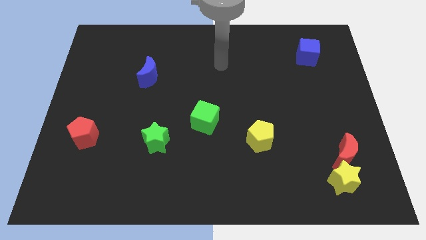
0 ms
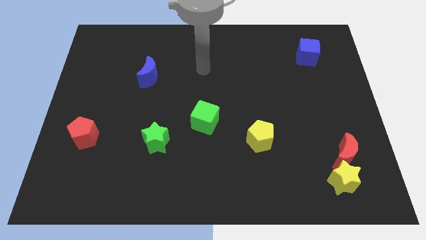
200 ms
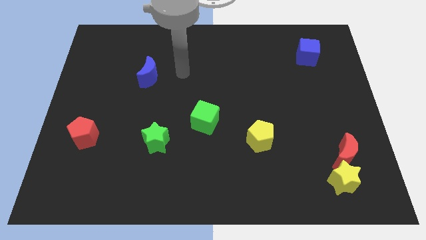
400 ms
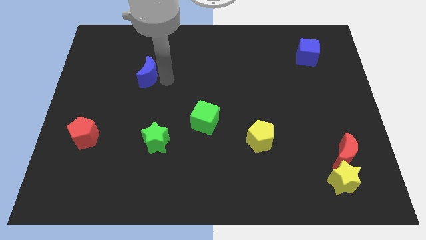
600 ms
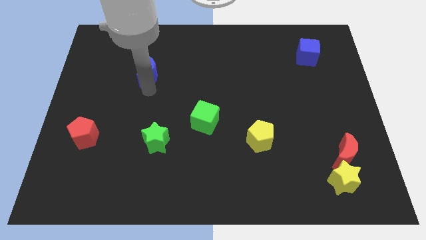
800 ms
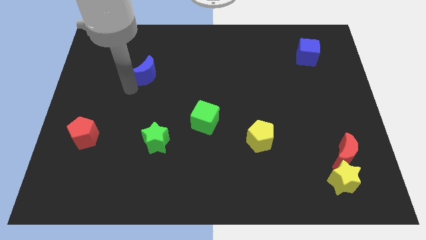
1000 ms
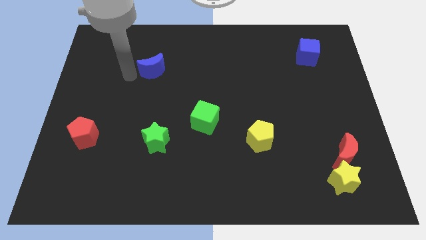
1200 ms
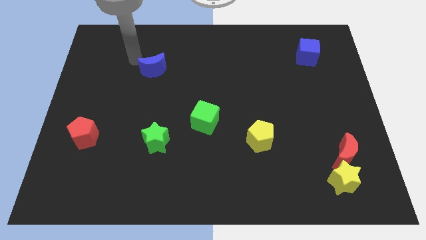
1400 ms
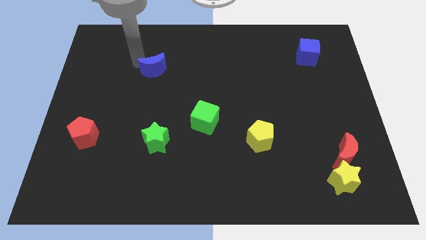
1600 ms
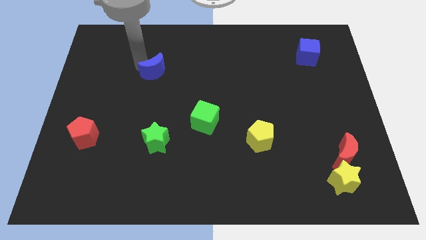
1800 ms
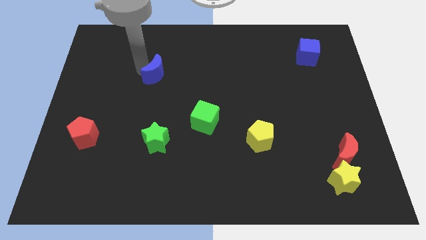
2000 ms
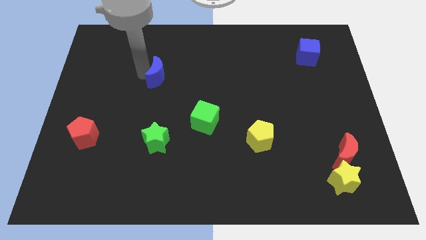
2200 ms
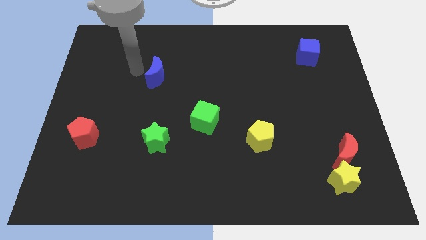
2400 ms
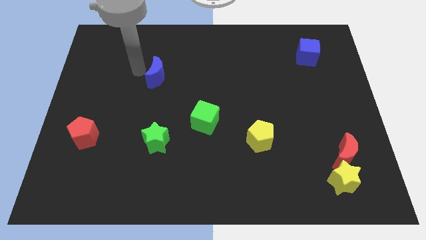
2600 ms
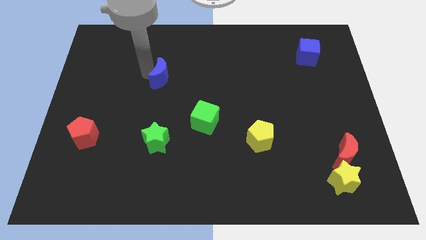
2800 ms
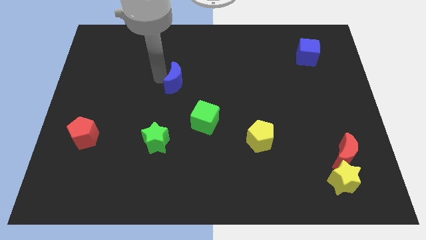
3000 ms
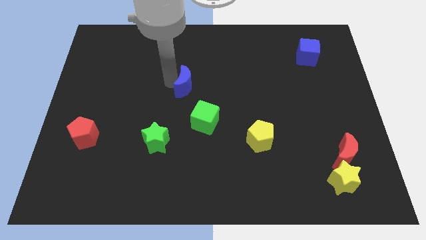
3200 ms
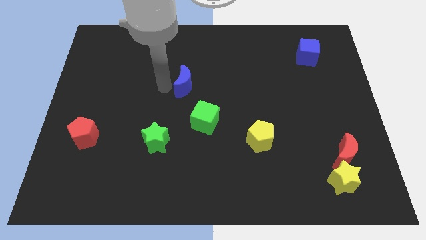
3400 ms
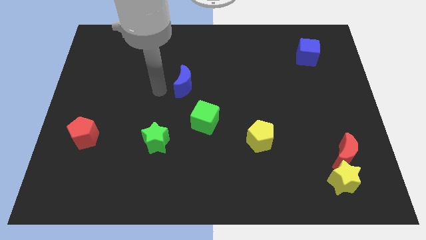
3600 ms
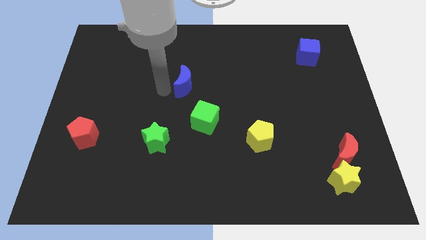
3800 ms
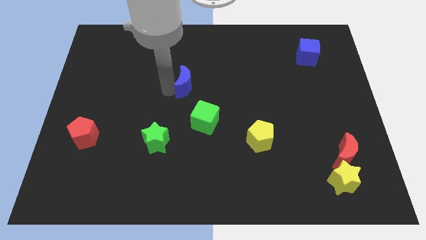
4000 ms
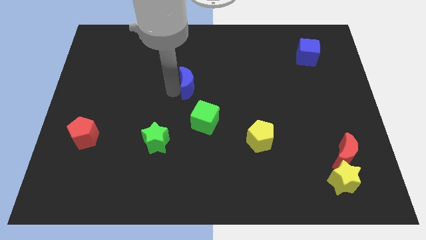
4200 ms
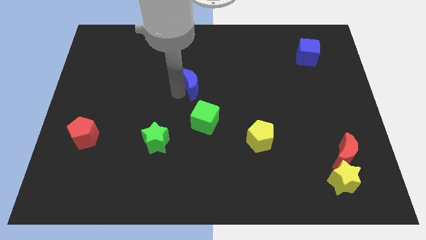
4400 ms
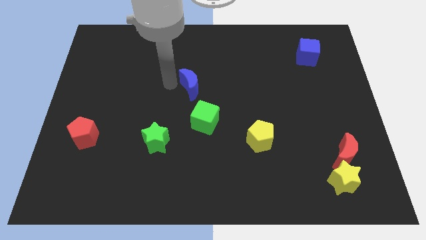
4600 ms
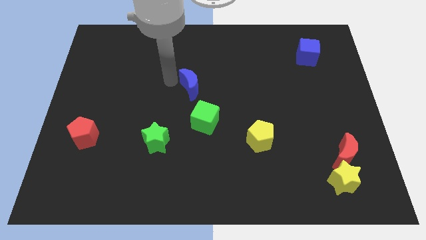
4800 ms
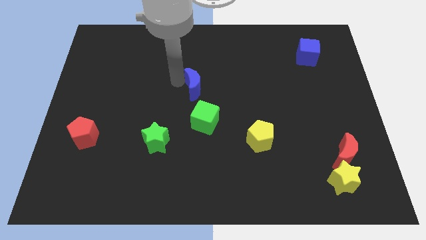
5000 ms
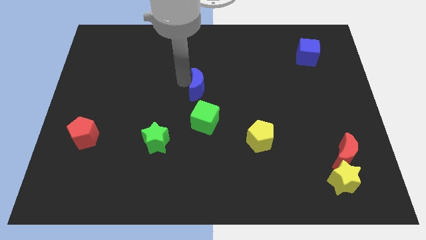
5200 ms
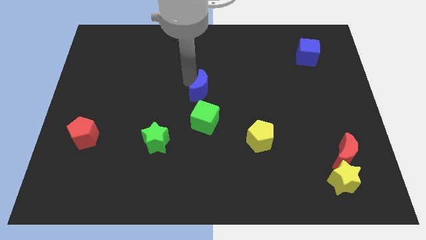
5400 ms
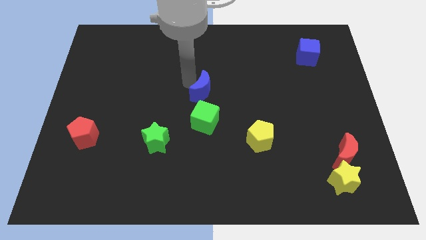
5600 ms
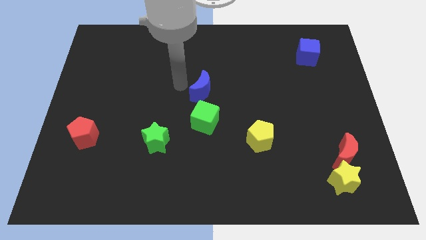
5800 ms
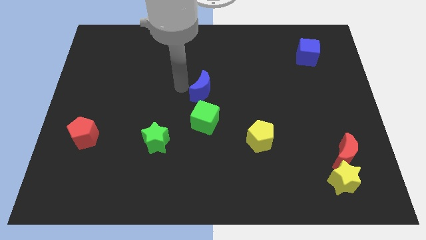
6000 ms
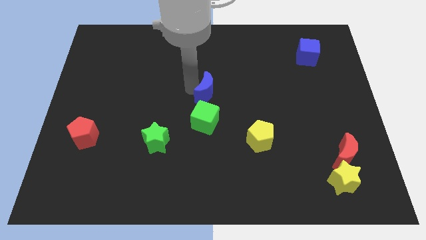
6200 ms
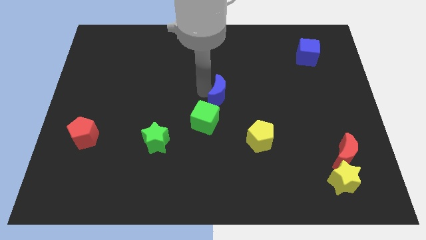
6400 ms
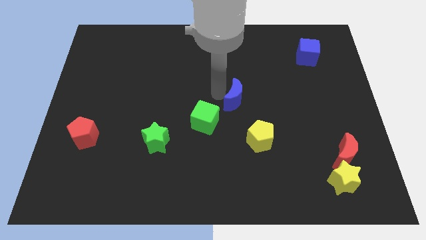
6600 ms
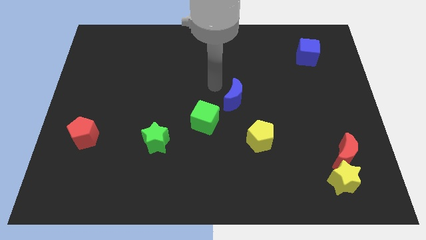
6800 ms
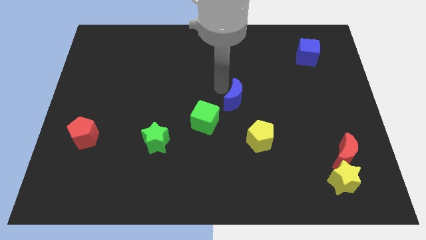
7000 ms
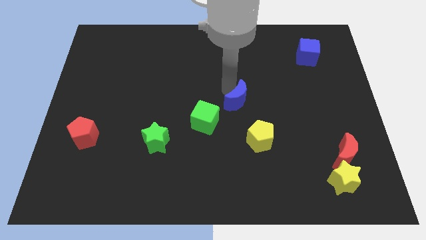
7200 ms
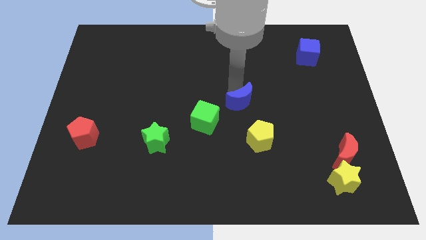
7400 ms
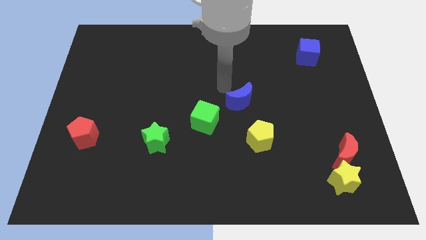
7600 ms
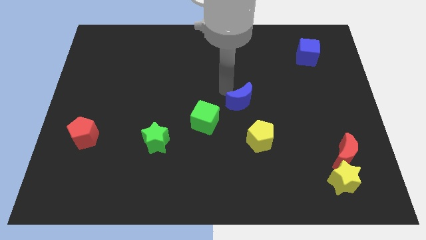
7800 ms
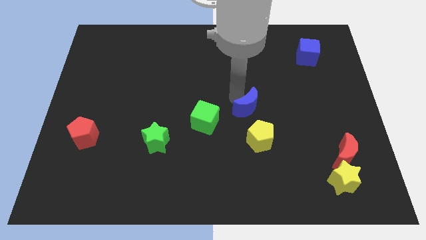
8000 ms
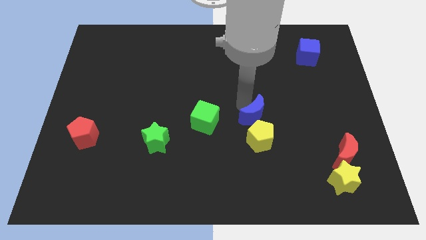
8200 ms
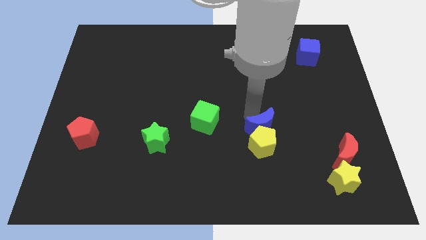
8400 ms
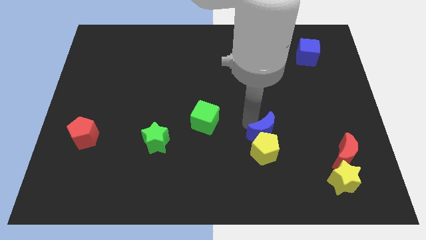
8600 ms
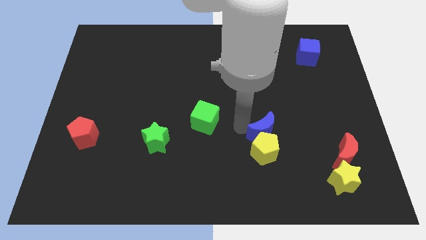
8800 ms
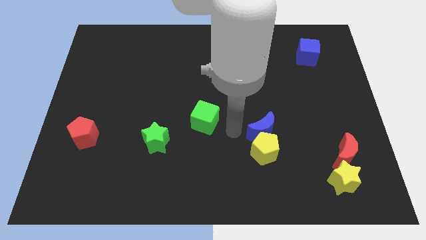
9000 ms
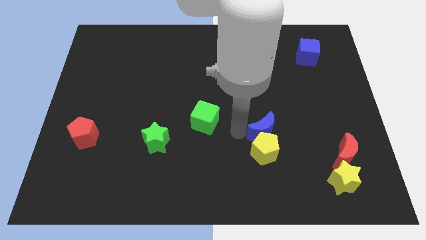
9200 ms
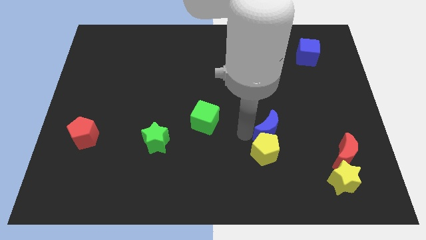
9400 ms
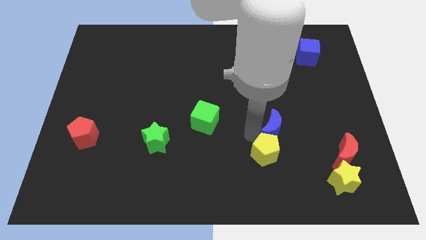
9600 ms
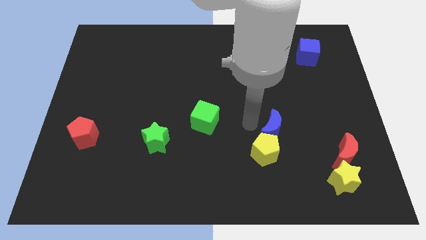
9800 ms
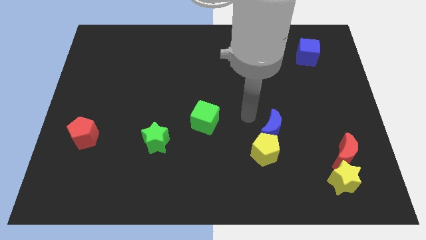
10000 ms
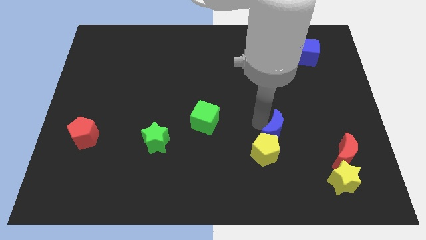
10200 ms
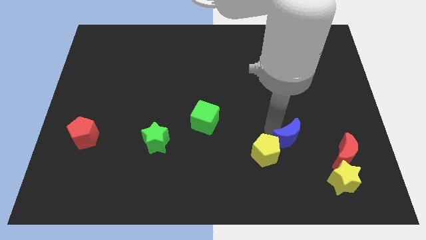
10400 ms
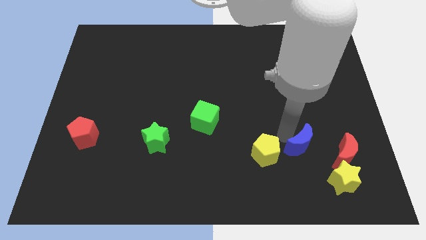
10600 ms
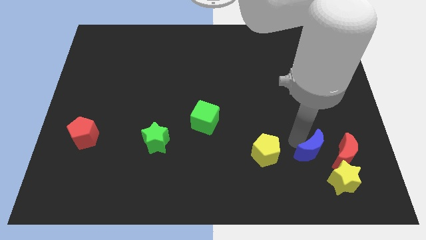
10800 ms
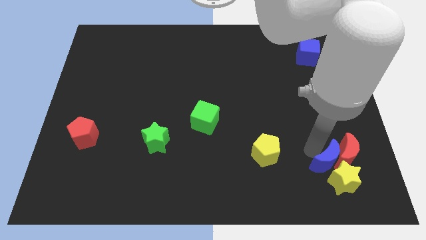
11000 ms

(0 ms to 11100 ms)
put the blue moon towards the yellow star

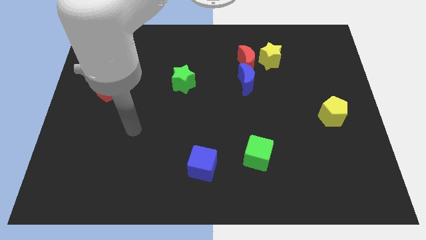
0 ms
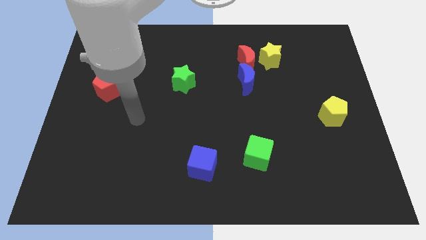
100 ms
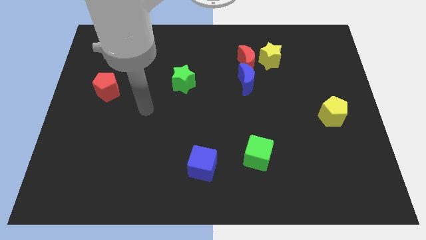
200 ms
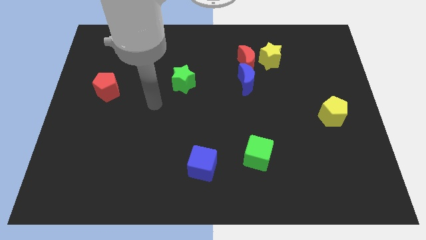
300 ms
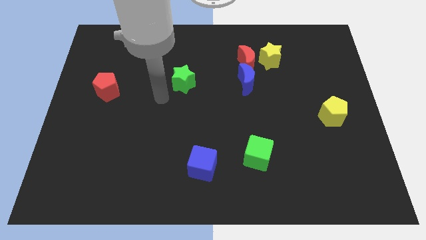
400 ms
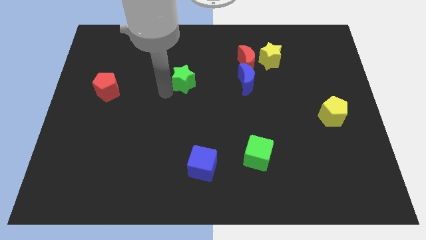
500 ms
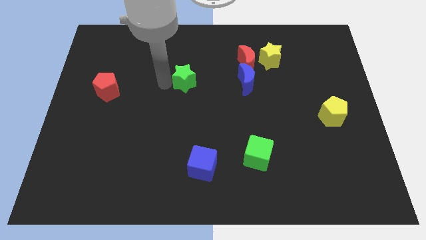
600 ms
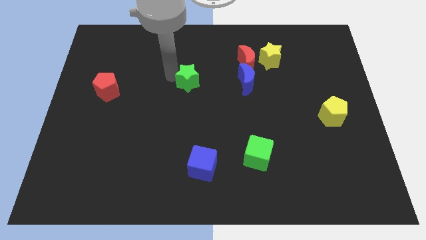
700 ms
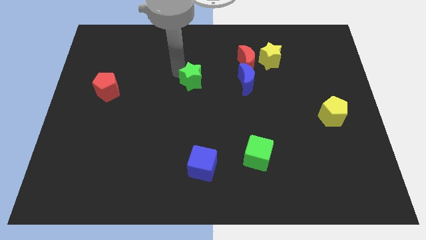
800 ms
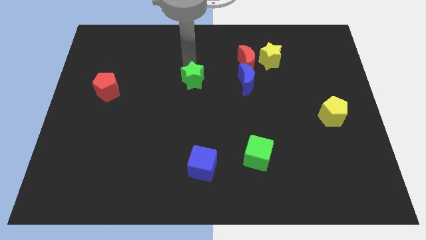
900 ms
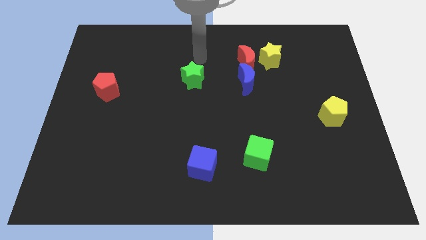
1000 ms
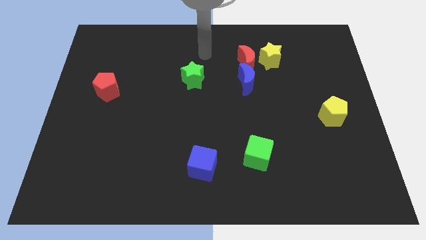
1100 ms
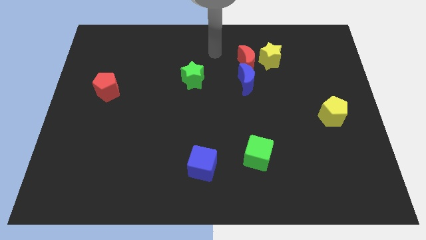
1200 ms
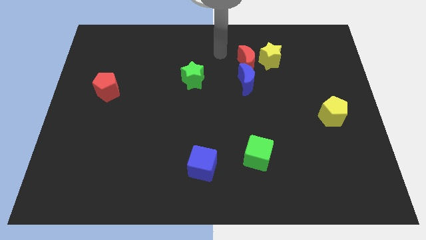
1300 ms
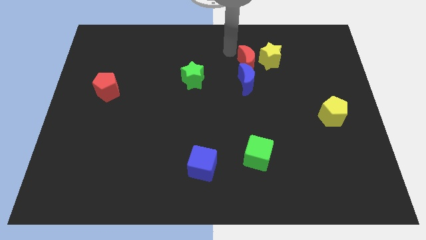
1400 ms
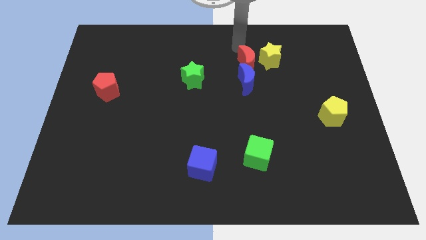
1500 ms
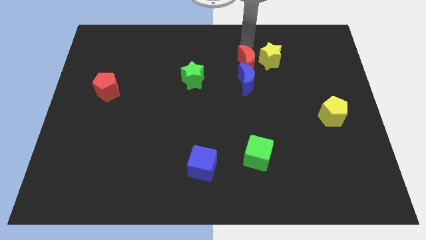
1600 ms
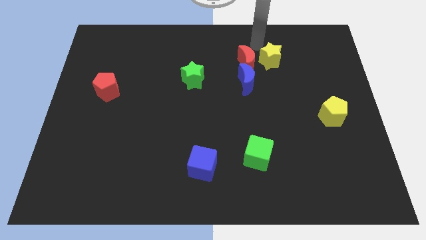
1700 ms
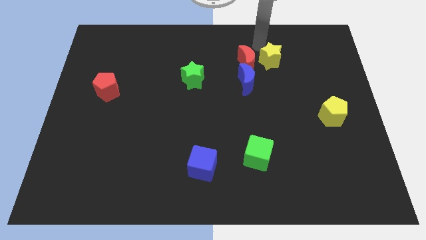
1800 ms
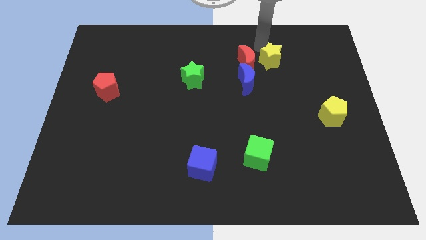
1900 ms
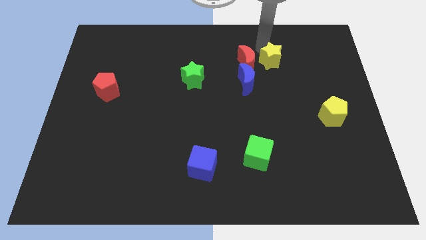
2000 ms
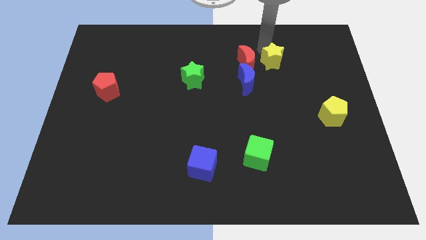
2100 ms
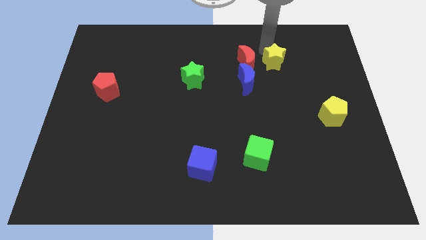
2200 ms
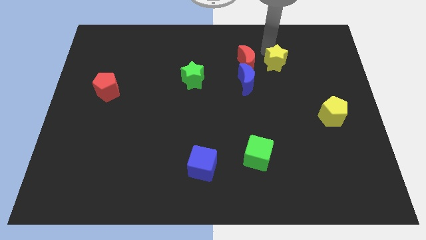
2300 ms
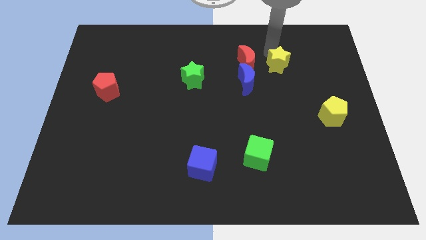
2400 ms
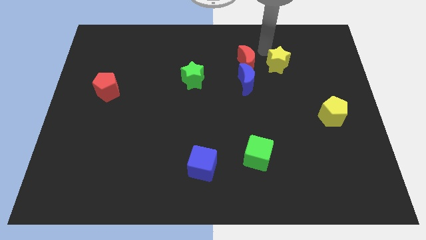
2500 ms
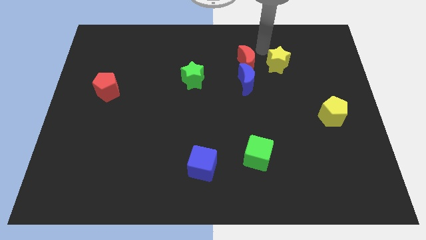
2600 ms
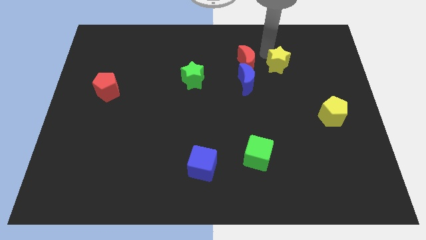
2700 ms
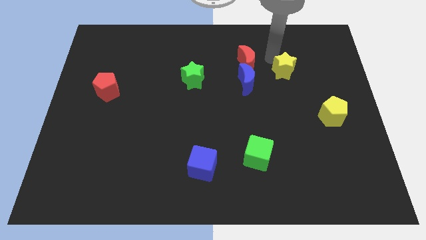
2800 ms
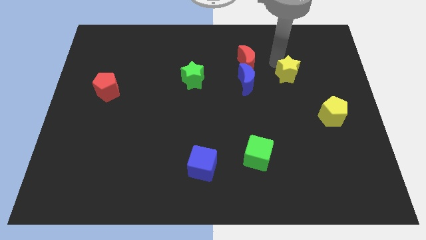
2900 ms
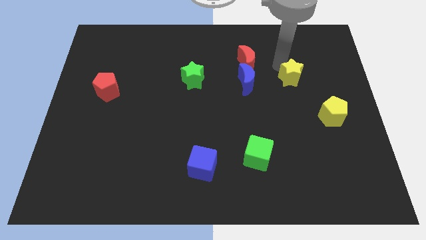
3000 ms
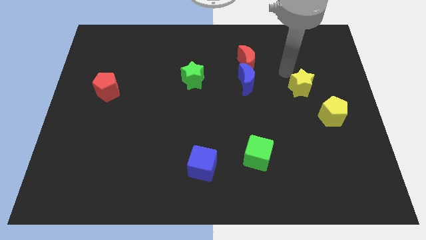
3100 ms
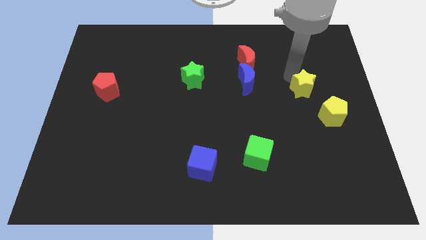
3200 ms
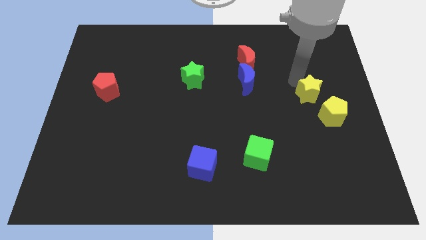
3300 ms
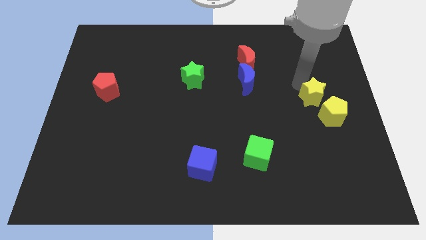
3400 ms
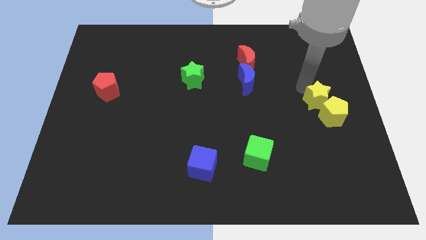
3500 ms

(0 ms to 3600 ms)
put the yellow star close to the yellow pentagon
